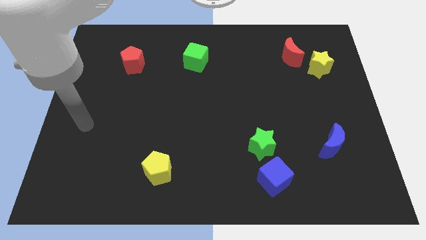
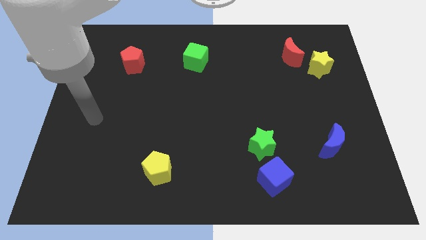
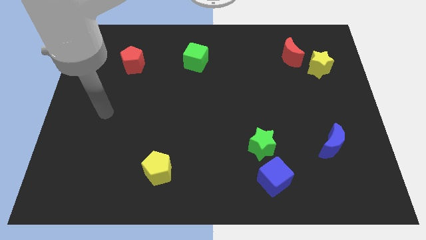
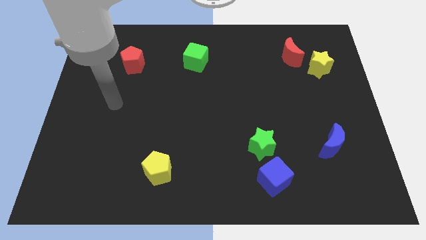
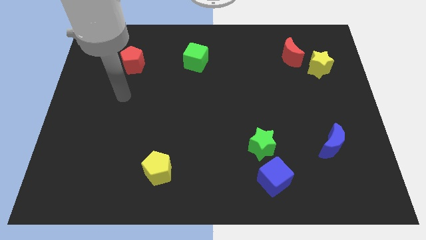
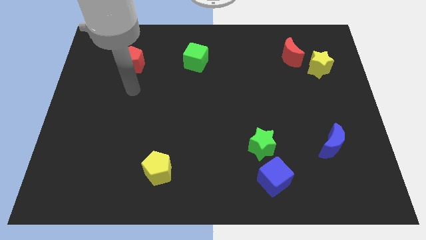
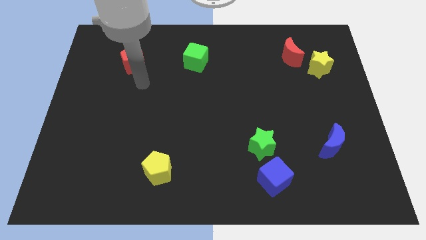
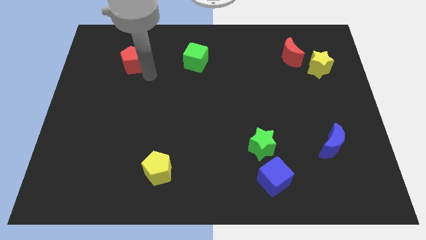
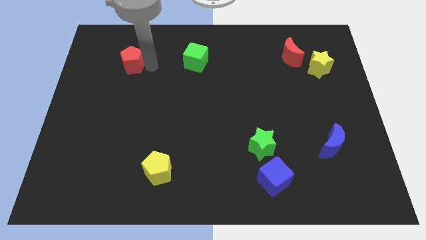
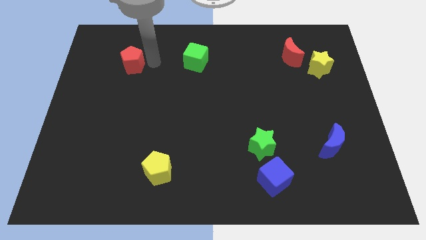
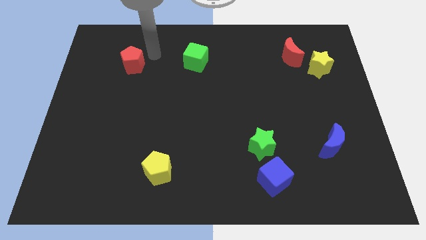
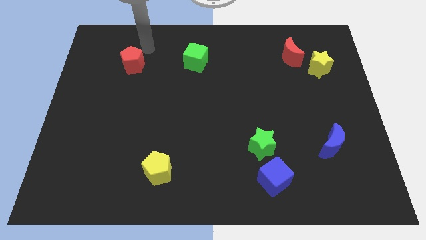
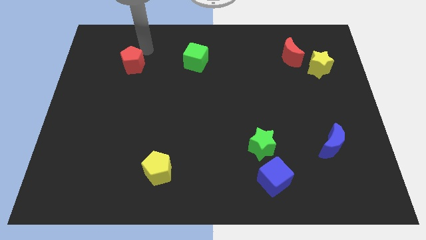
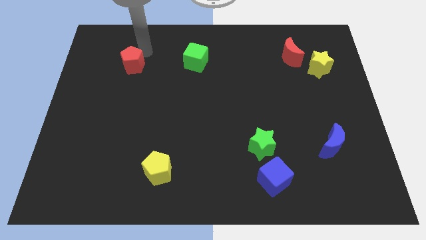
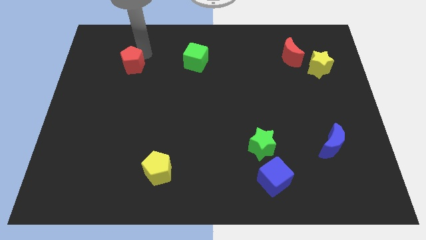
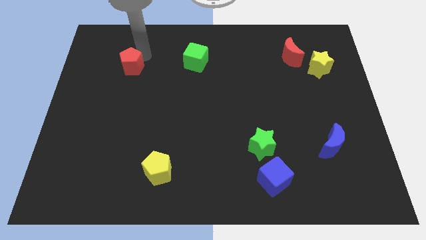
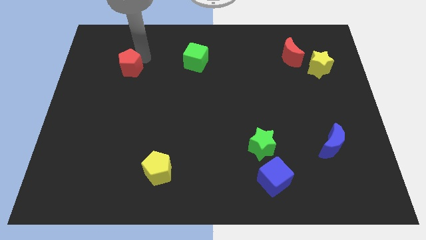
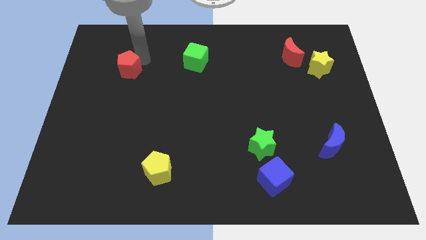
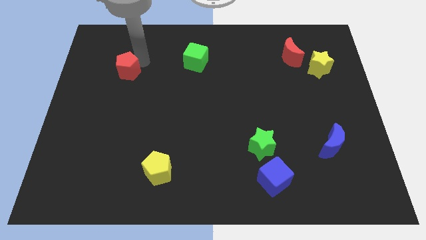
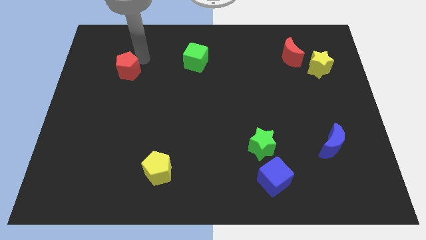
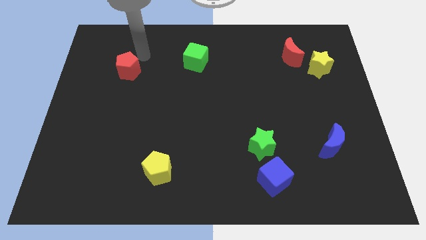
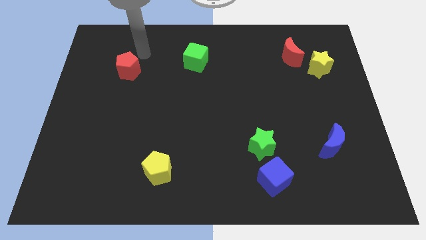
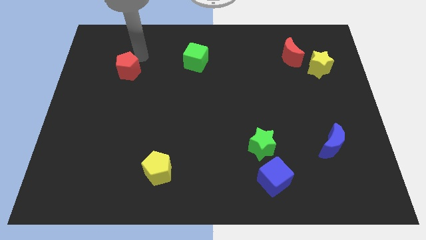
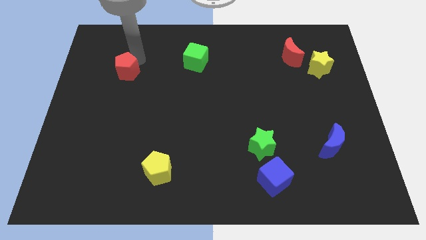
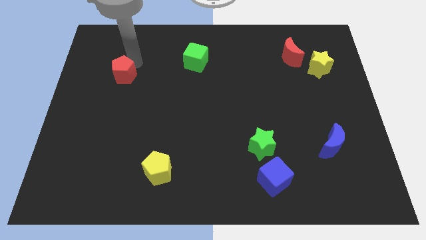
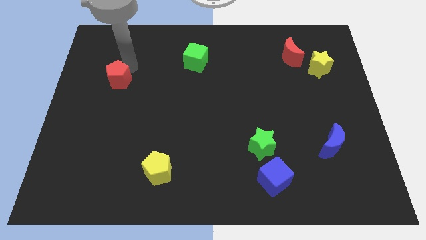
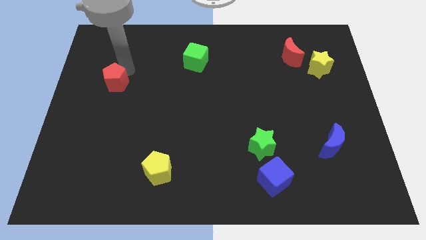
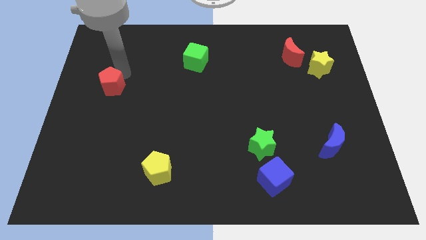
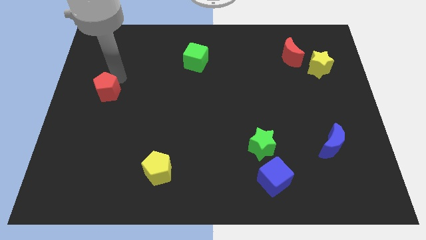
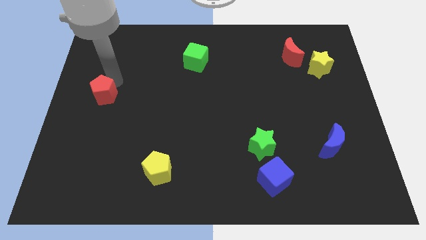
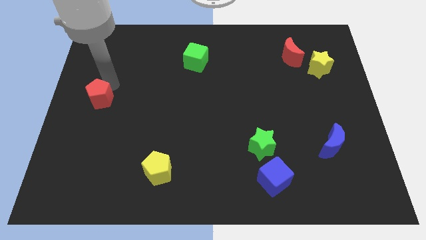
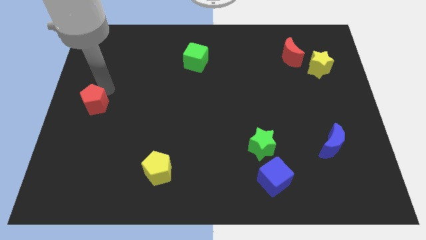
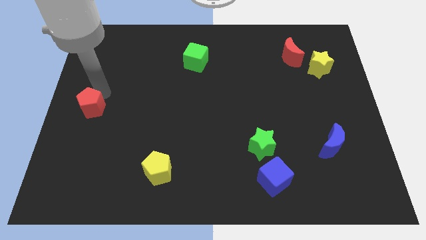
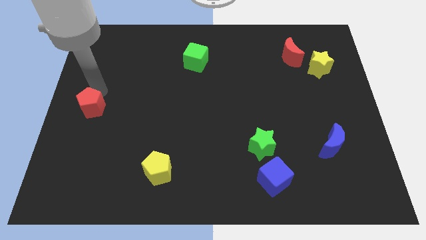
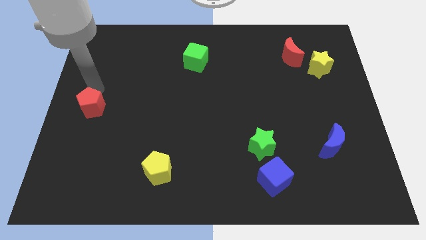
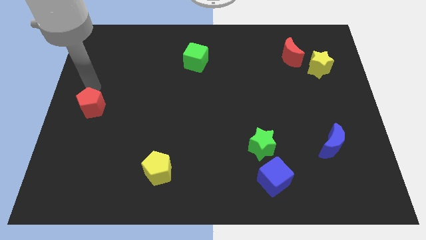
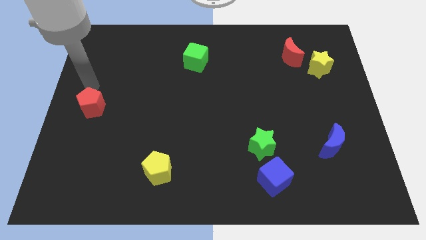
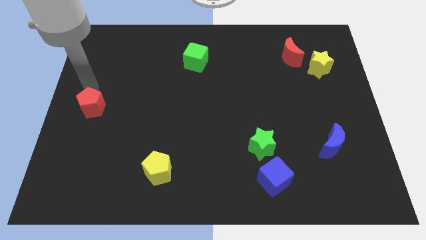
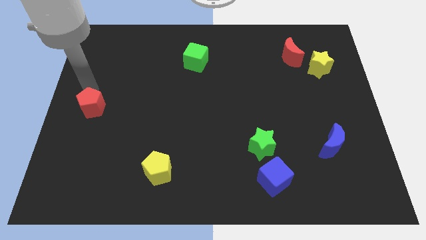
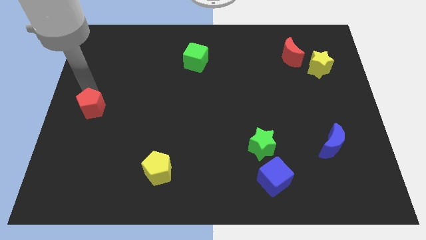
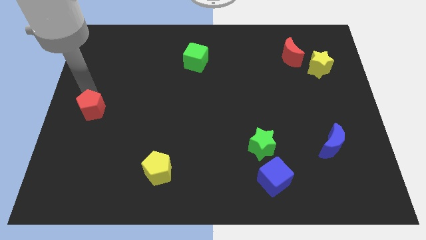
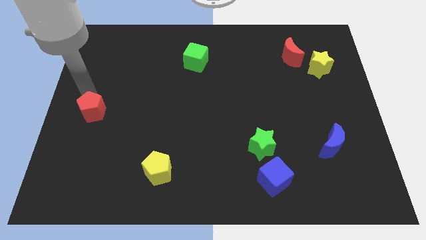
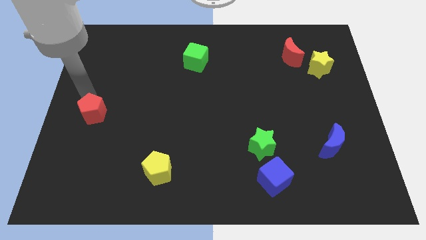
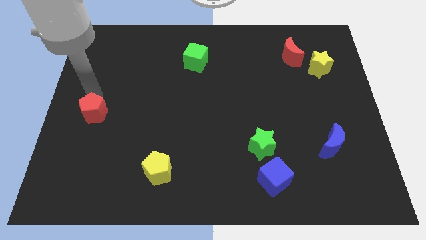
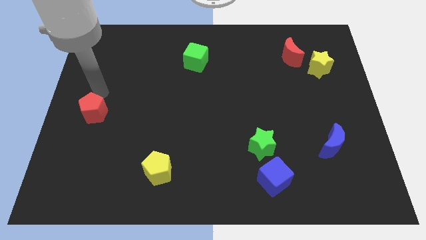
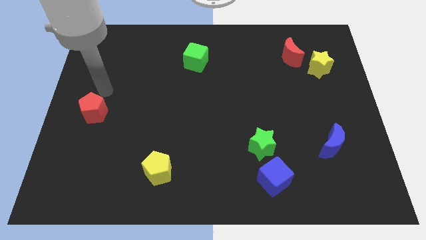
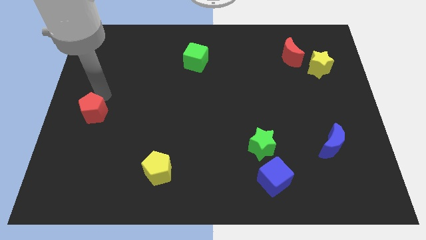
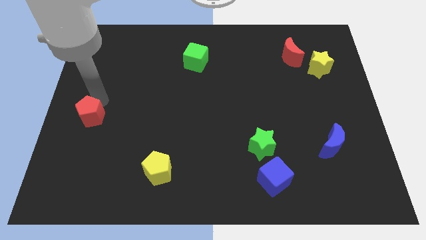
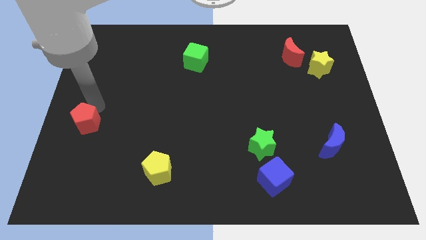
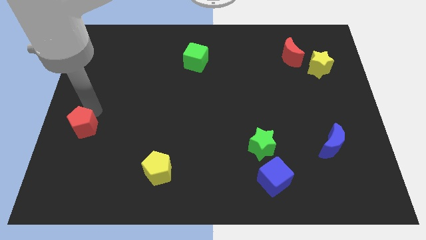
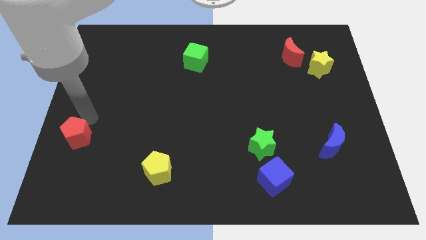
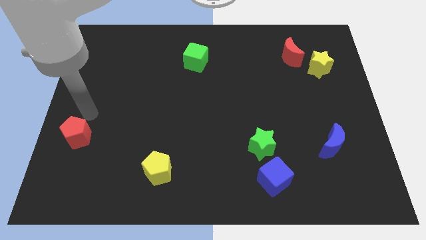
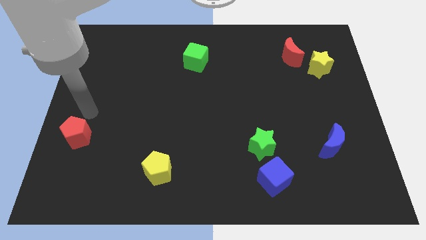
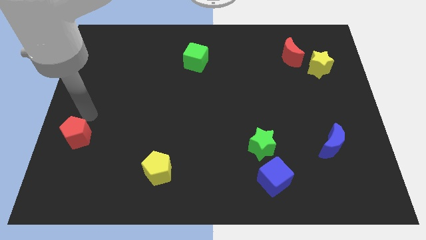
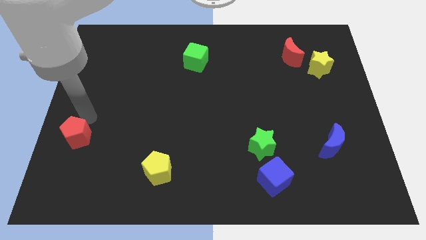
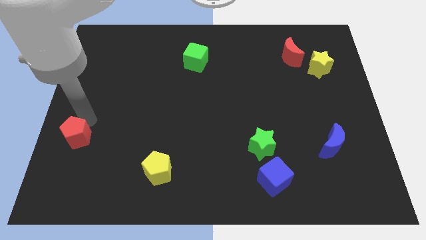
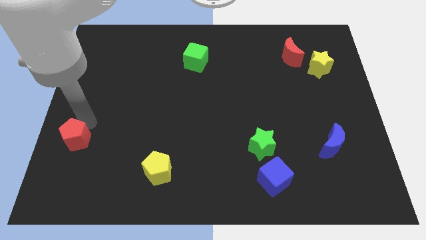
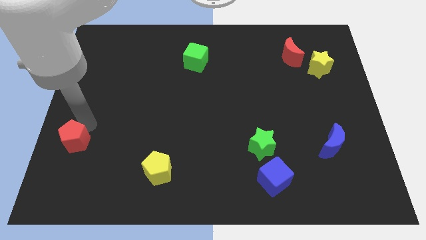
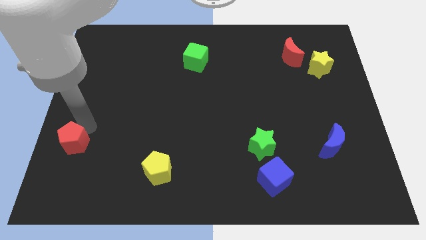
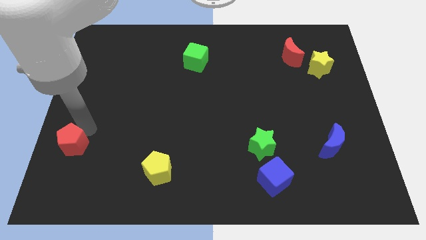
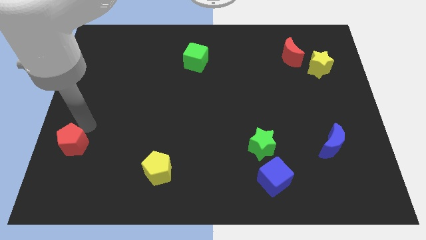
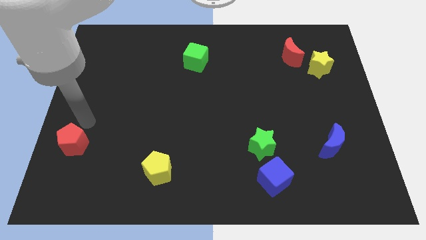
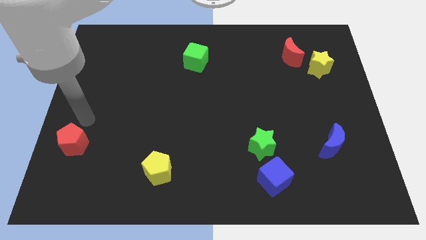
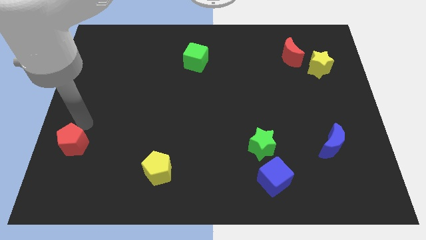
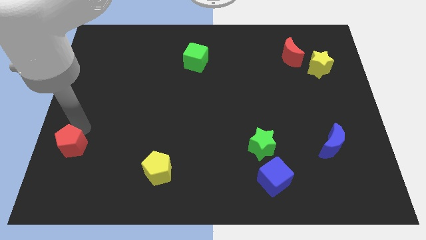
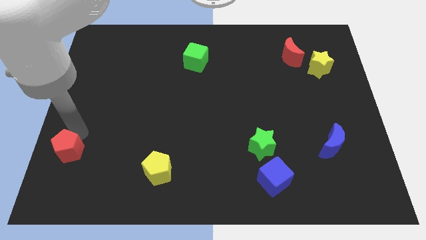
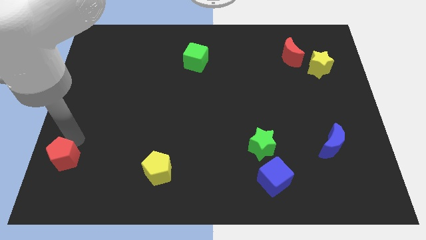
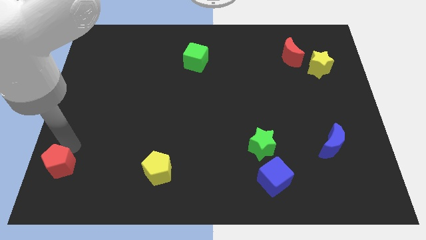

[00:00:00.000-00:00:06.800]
slide the red pentagon to the bottom left of the board

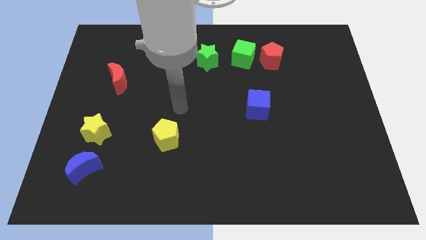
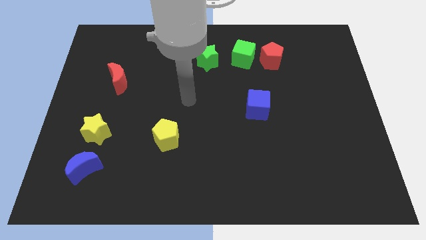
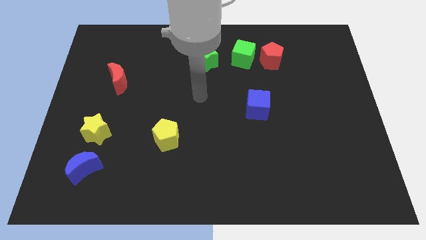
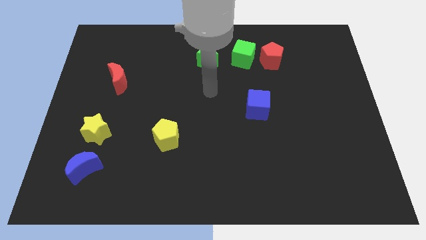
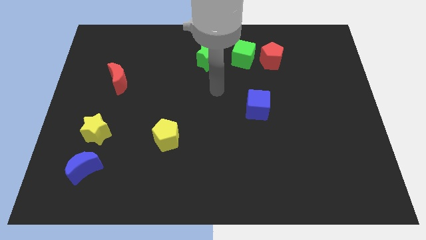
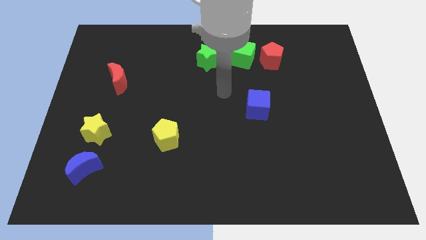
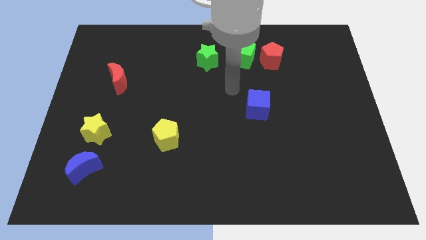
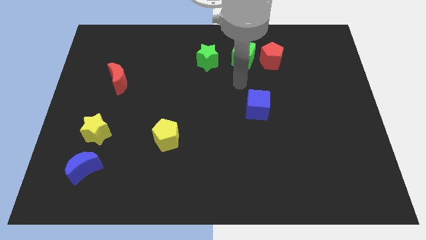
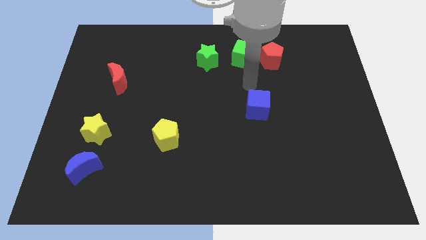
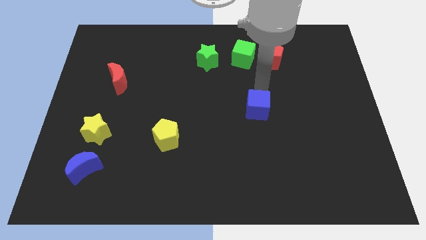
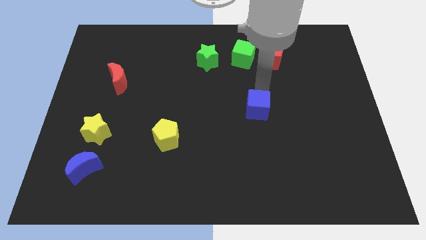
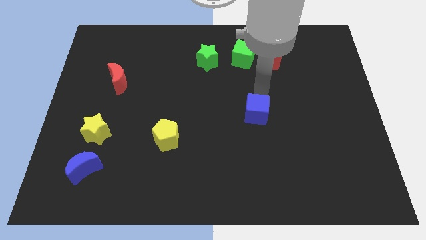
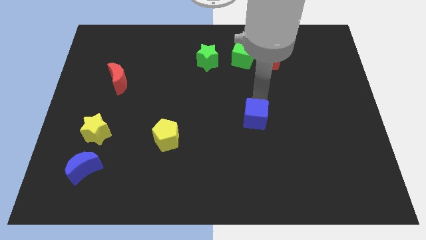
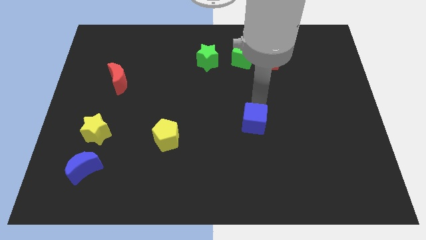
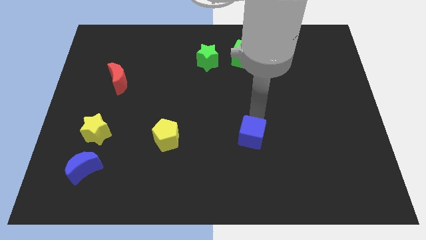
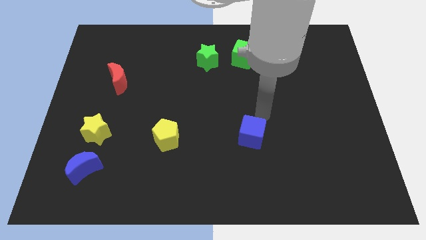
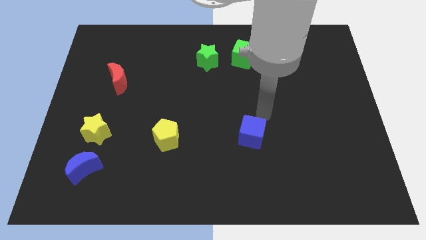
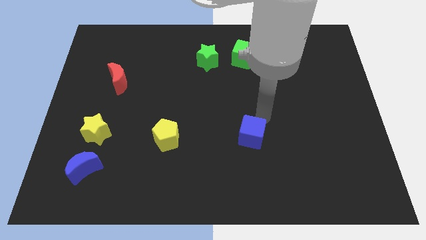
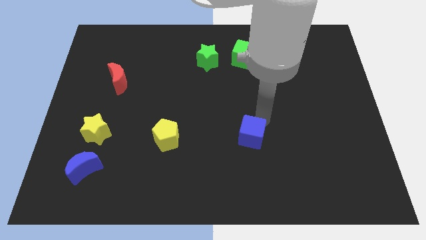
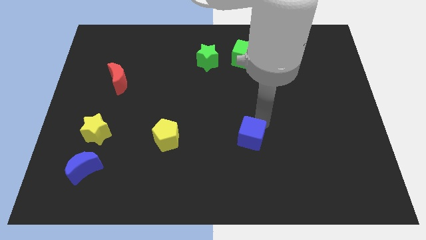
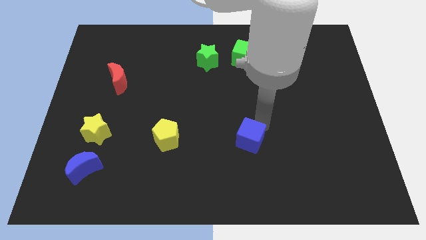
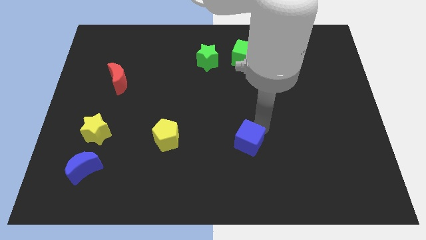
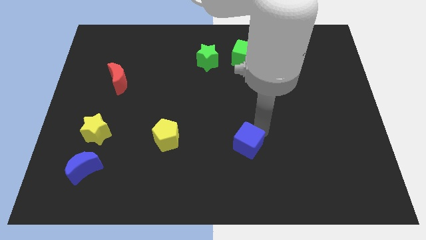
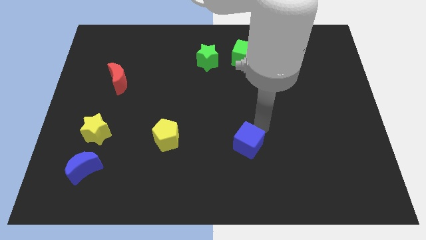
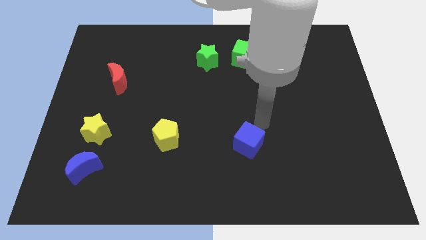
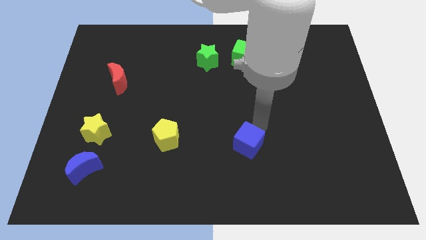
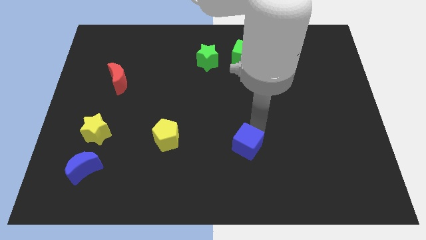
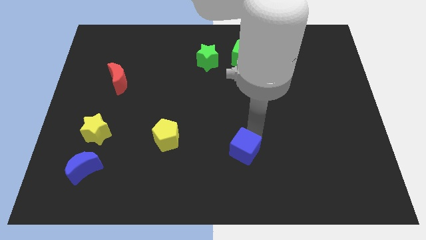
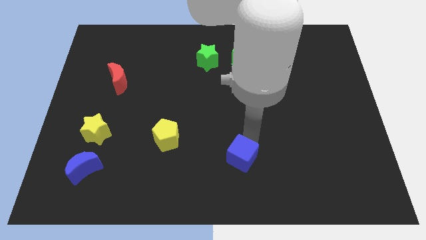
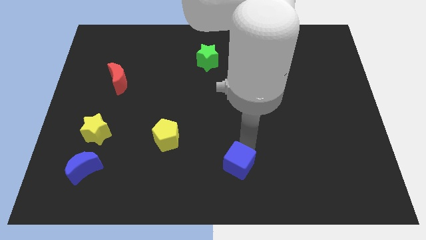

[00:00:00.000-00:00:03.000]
push the blue cube to the bottom side
